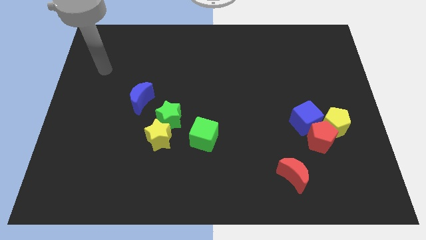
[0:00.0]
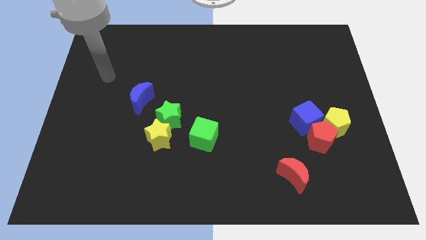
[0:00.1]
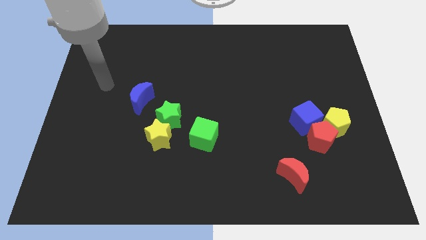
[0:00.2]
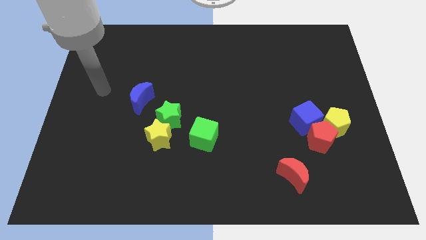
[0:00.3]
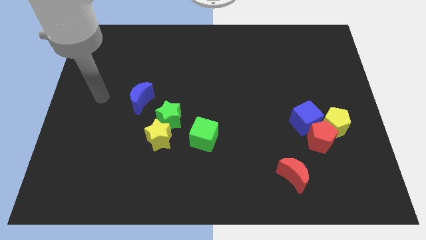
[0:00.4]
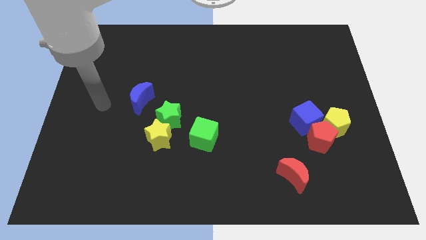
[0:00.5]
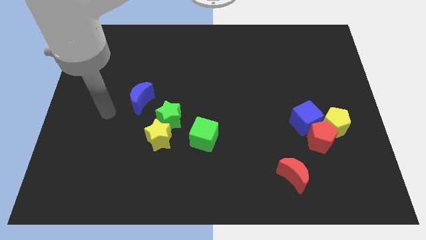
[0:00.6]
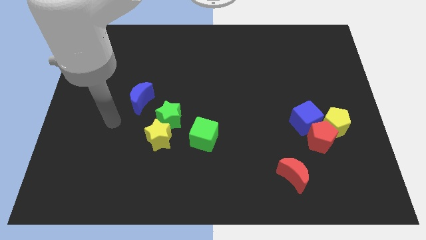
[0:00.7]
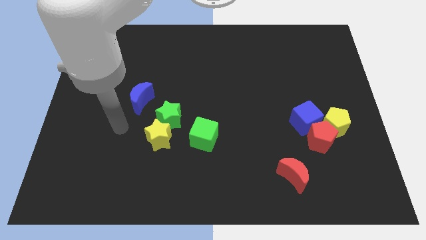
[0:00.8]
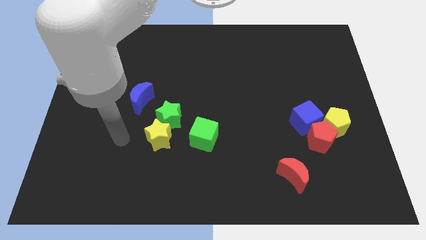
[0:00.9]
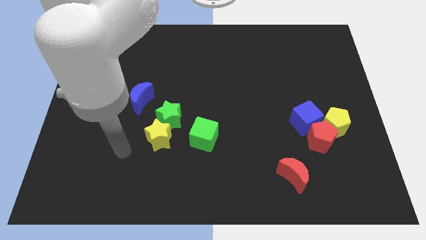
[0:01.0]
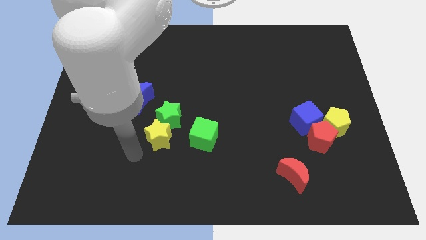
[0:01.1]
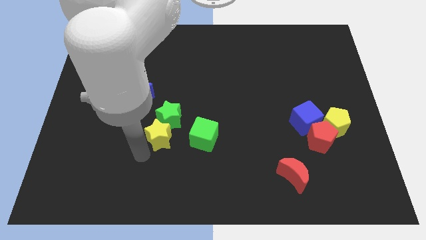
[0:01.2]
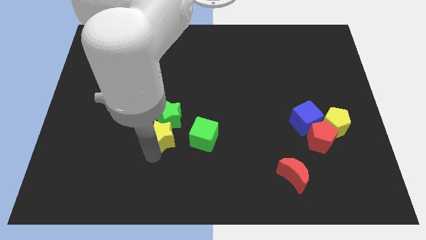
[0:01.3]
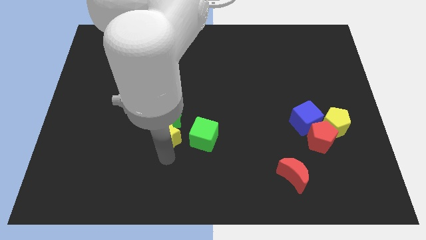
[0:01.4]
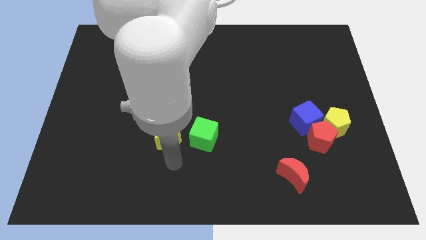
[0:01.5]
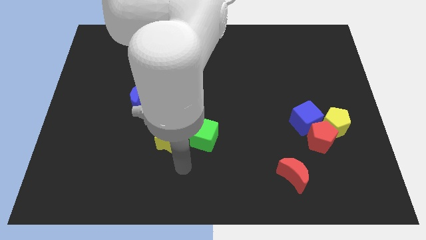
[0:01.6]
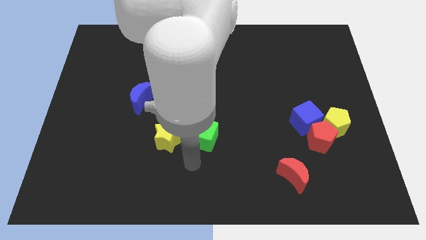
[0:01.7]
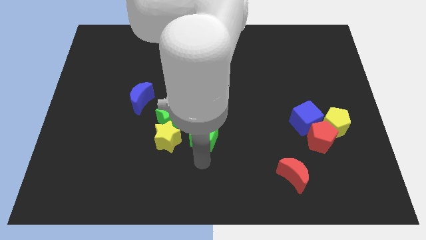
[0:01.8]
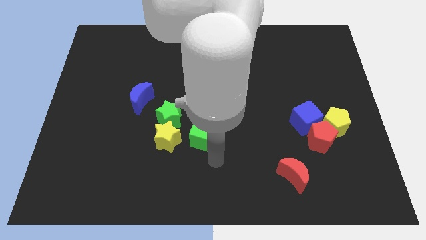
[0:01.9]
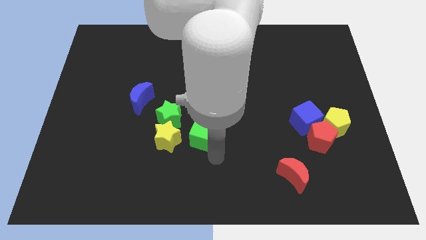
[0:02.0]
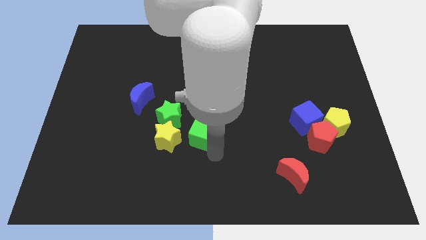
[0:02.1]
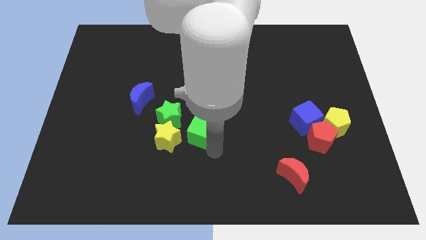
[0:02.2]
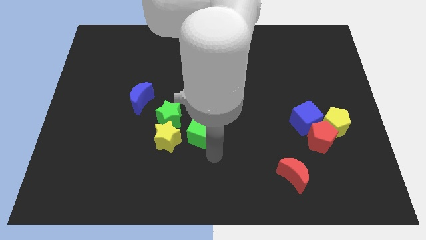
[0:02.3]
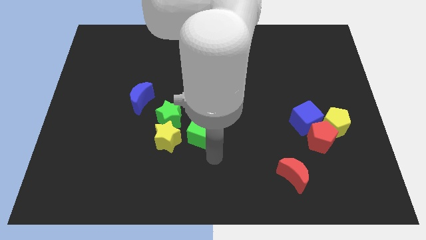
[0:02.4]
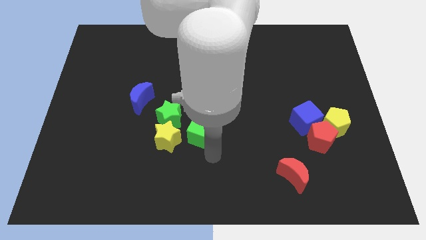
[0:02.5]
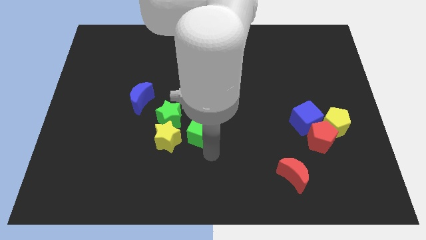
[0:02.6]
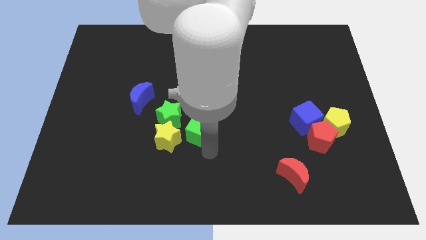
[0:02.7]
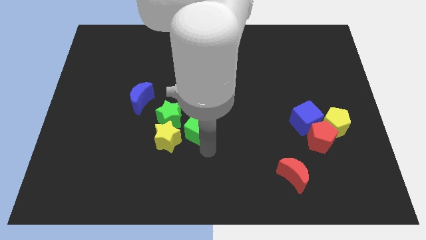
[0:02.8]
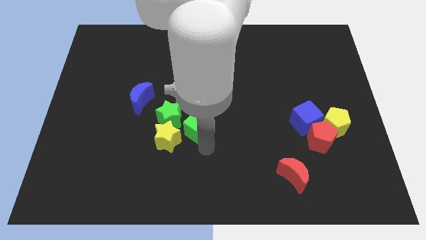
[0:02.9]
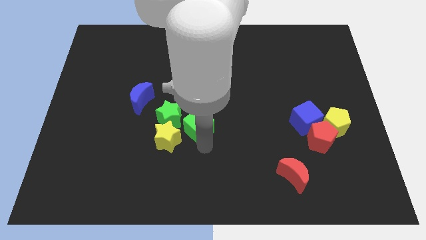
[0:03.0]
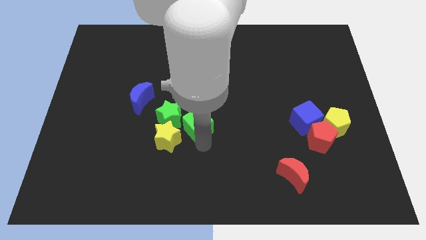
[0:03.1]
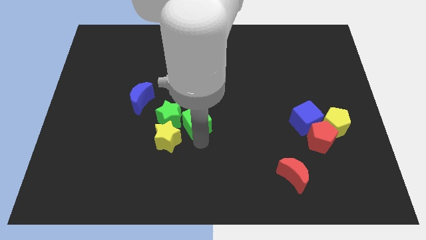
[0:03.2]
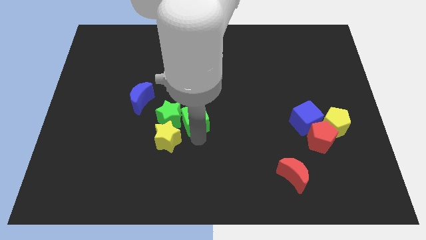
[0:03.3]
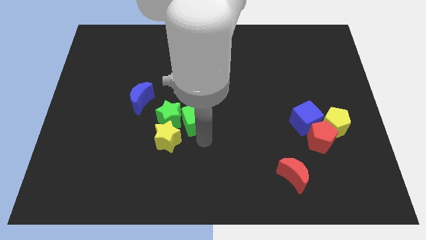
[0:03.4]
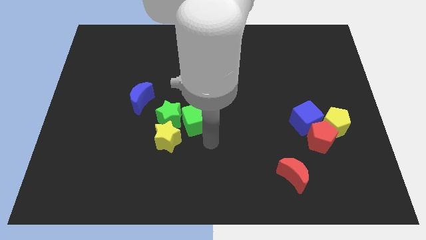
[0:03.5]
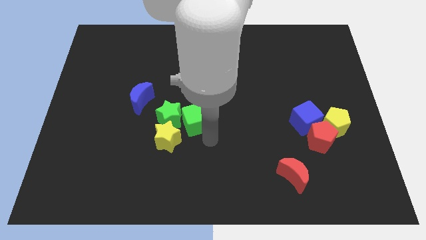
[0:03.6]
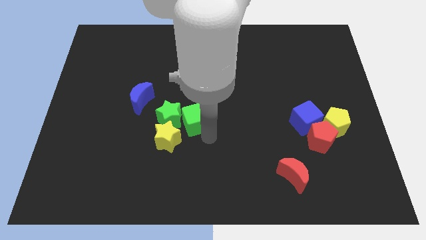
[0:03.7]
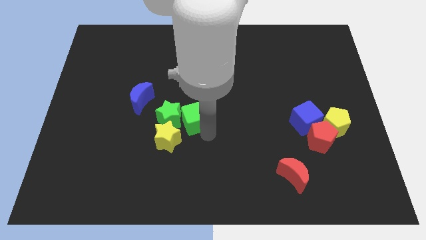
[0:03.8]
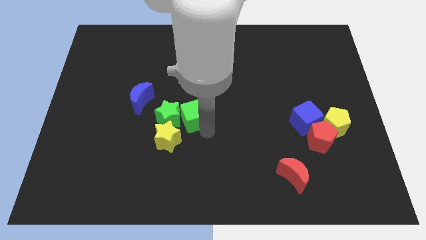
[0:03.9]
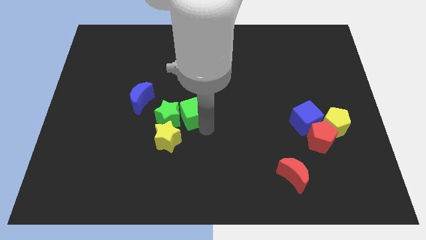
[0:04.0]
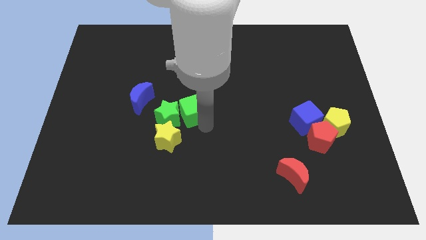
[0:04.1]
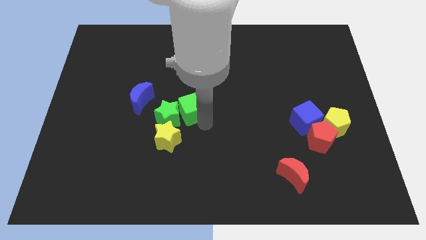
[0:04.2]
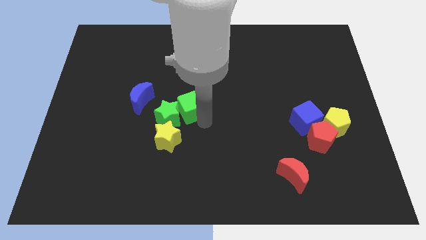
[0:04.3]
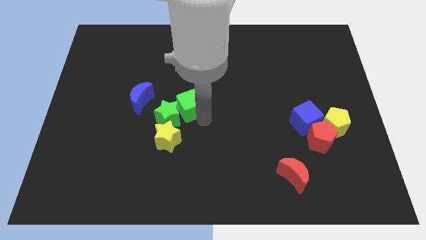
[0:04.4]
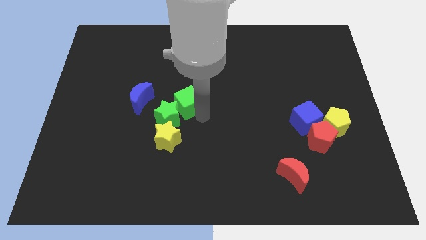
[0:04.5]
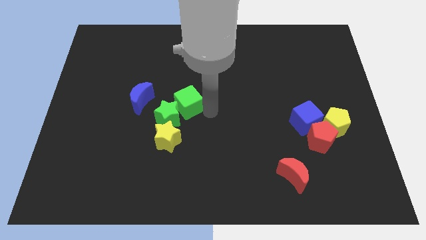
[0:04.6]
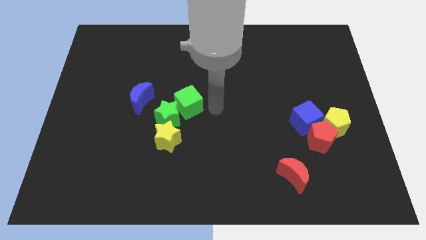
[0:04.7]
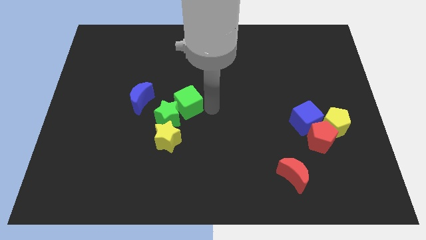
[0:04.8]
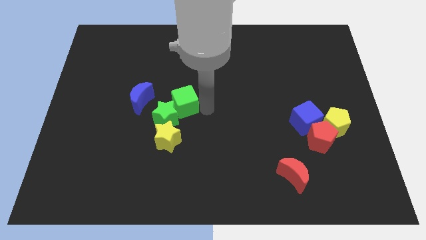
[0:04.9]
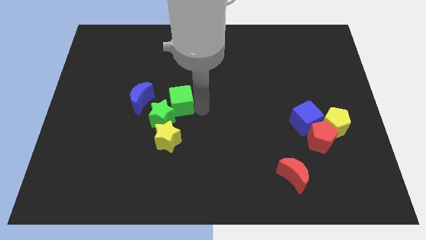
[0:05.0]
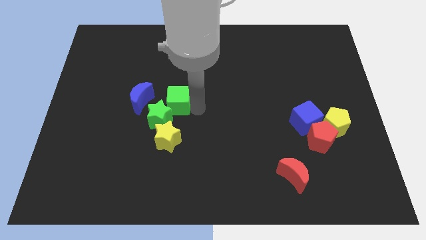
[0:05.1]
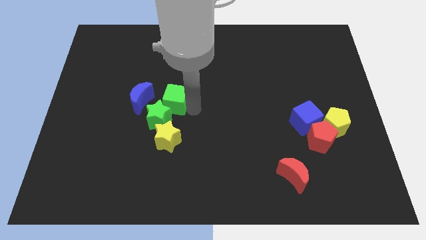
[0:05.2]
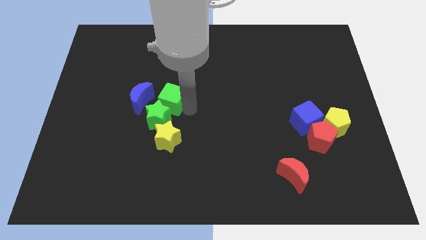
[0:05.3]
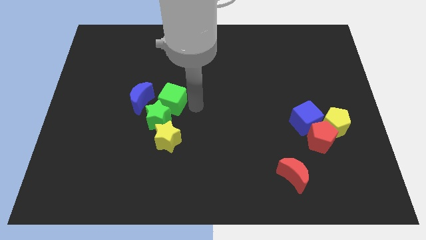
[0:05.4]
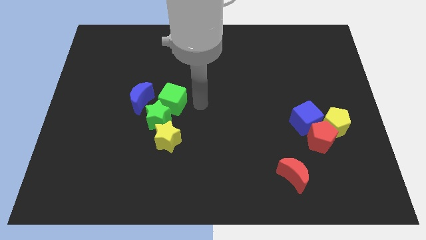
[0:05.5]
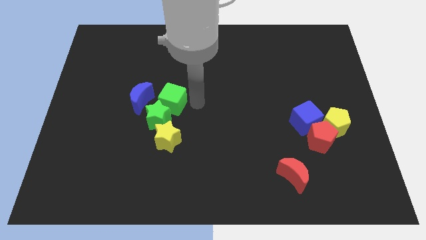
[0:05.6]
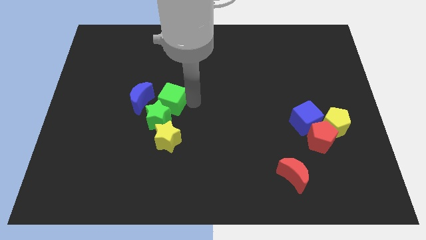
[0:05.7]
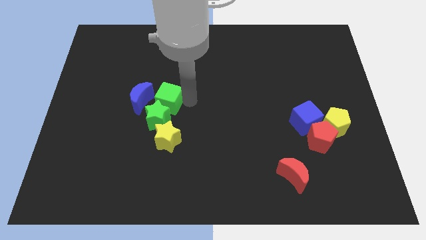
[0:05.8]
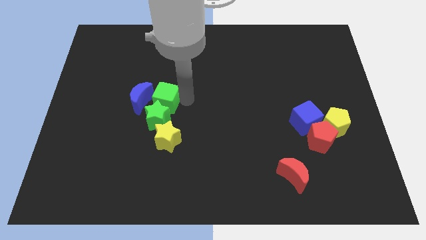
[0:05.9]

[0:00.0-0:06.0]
put the green cube towards the blue moon

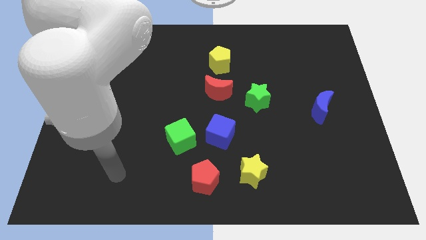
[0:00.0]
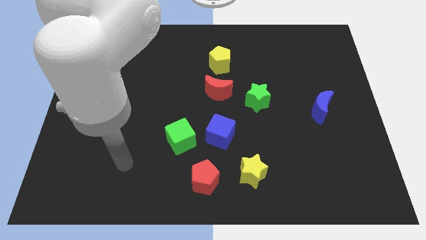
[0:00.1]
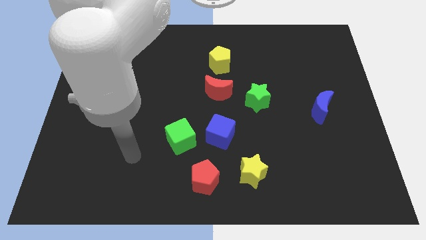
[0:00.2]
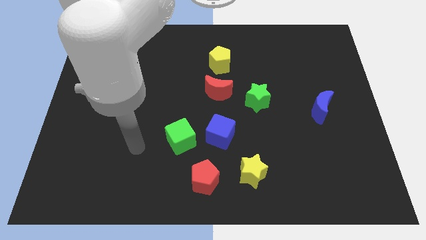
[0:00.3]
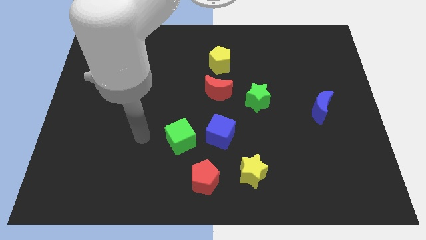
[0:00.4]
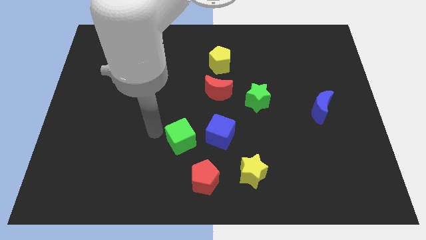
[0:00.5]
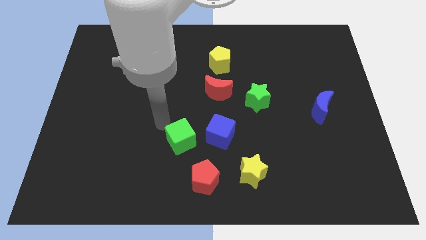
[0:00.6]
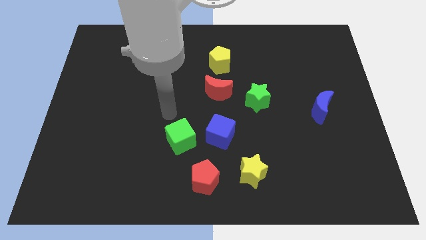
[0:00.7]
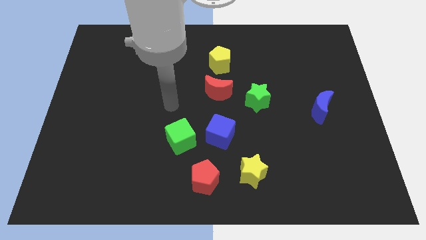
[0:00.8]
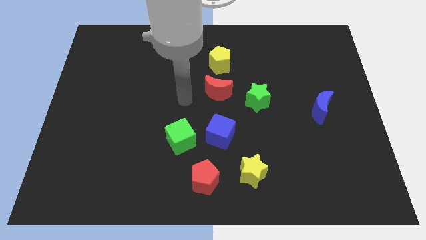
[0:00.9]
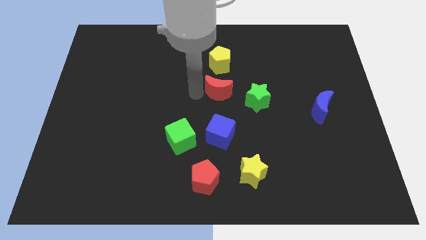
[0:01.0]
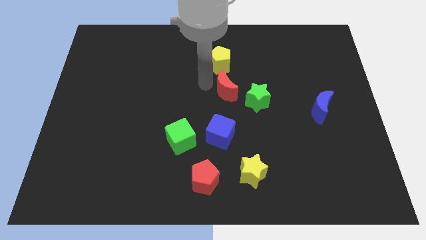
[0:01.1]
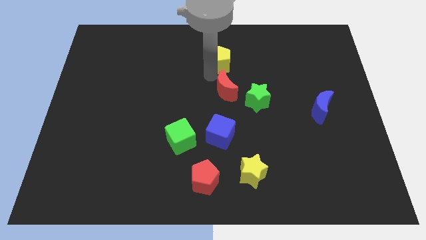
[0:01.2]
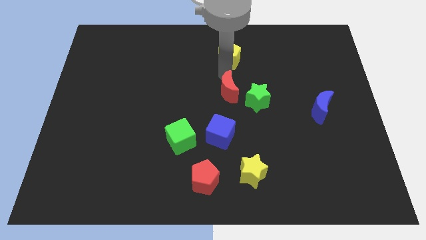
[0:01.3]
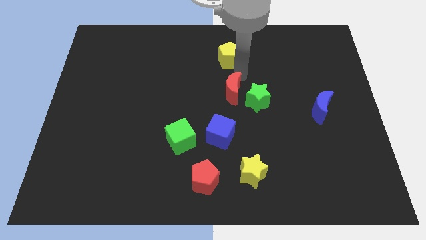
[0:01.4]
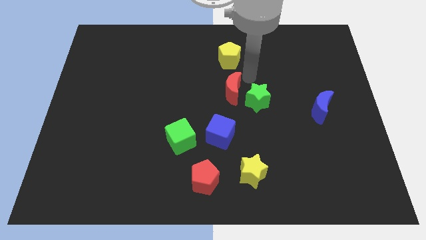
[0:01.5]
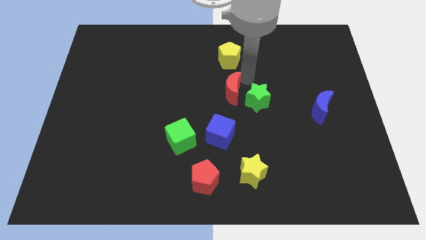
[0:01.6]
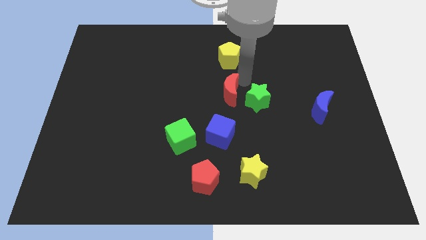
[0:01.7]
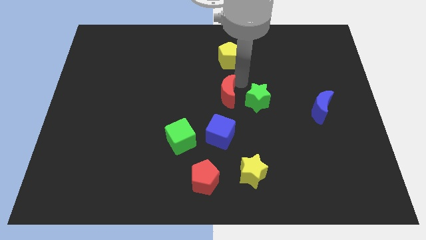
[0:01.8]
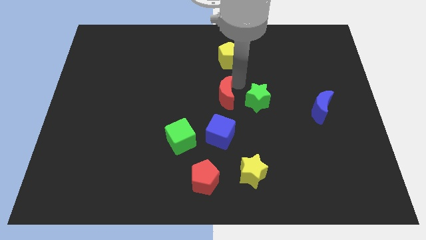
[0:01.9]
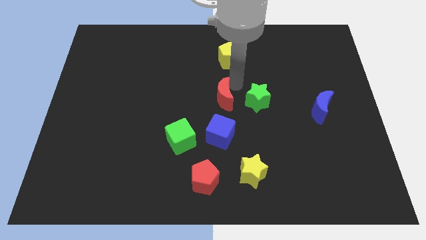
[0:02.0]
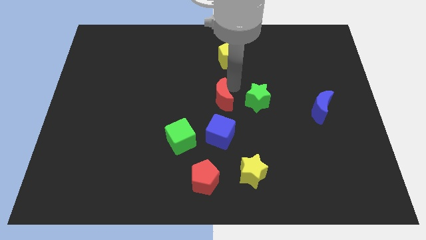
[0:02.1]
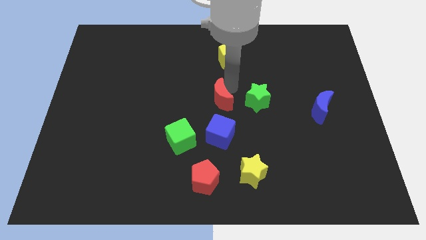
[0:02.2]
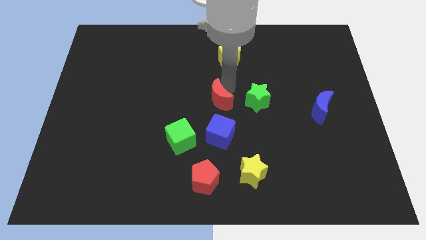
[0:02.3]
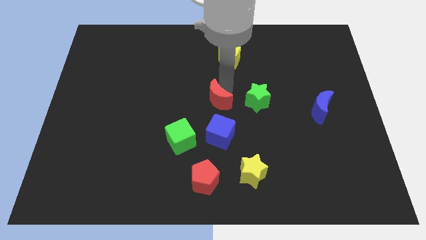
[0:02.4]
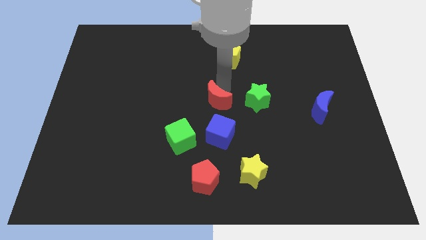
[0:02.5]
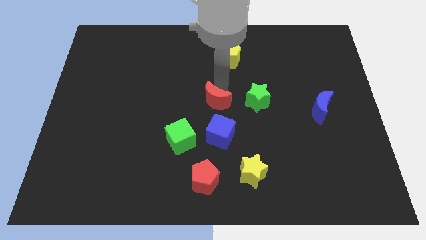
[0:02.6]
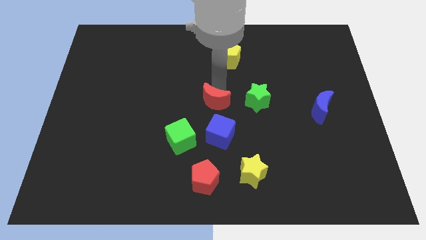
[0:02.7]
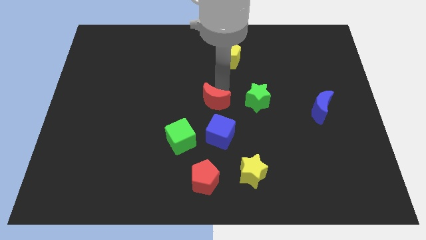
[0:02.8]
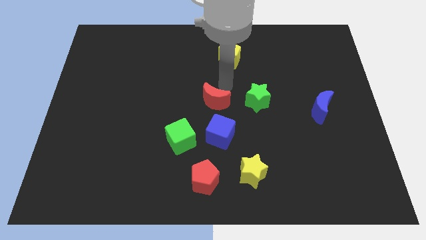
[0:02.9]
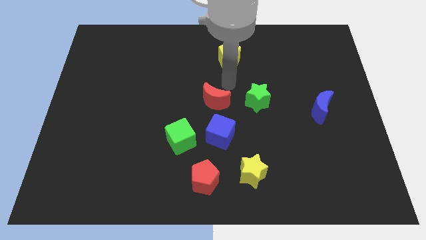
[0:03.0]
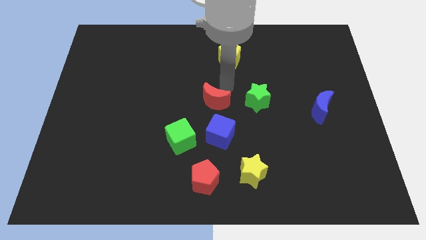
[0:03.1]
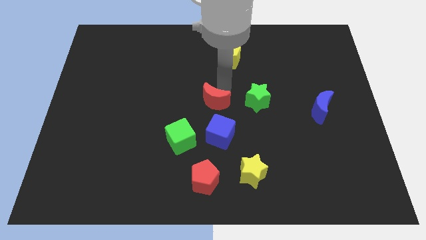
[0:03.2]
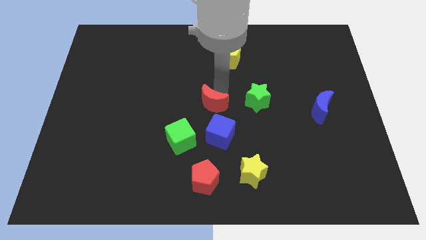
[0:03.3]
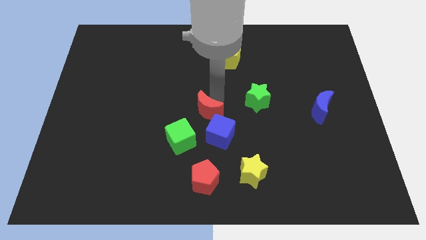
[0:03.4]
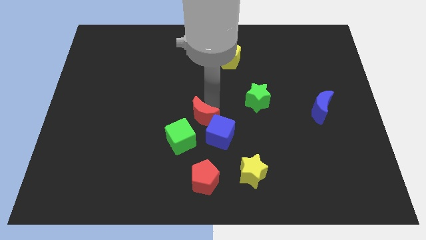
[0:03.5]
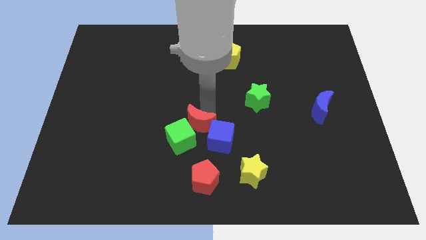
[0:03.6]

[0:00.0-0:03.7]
move the red moon next to the green cube
